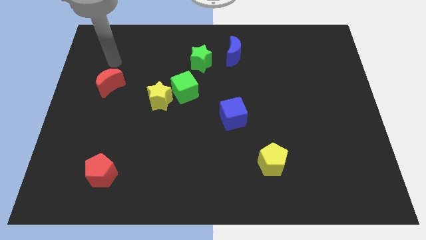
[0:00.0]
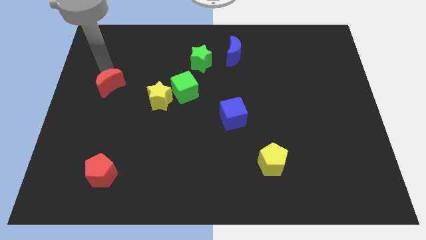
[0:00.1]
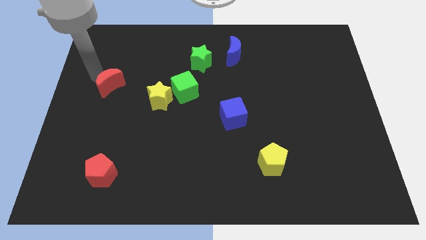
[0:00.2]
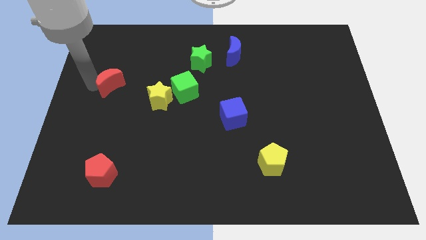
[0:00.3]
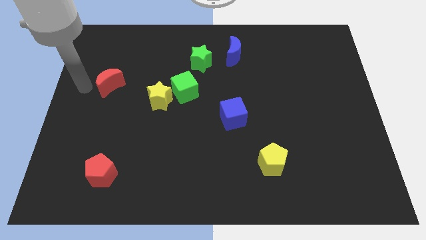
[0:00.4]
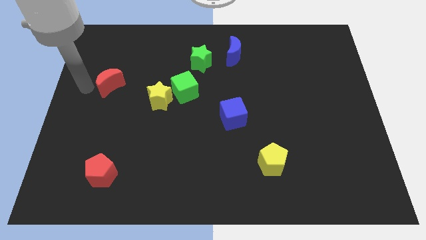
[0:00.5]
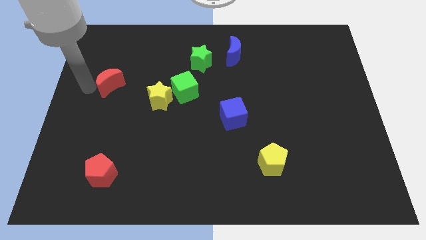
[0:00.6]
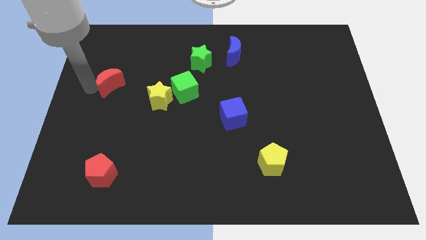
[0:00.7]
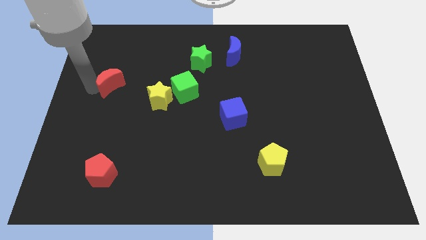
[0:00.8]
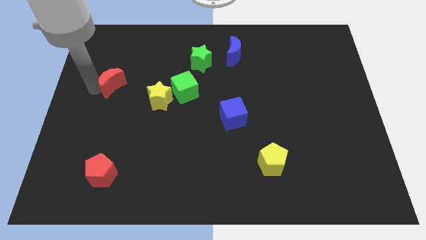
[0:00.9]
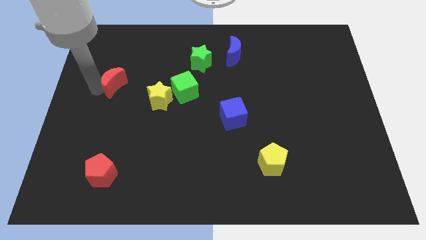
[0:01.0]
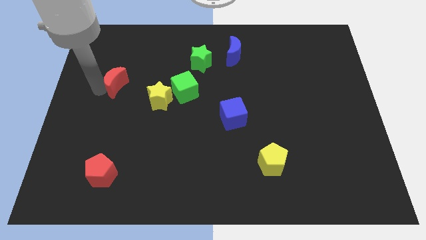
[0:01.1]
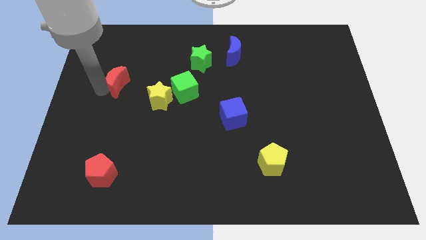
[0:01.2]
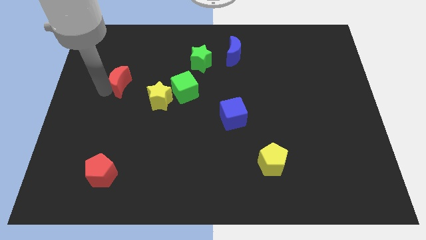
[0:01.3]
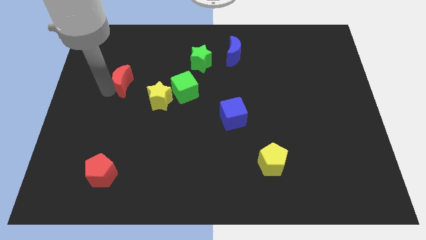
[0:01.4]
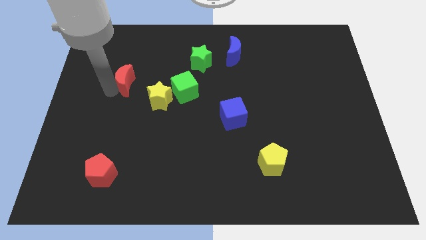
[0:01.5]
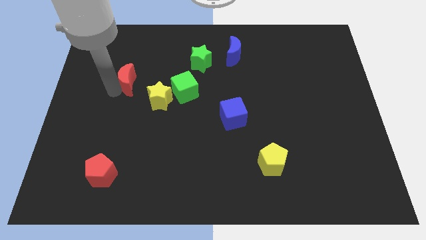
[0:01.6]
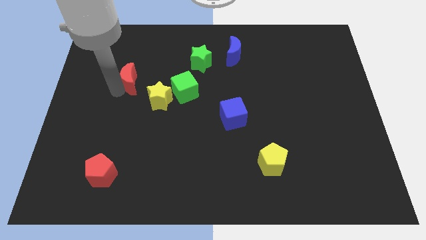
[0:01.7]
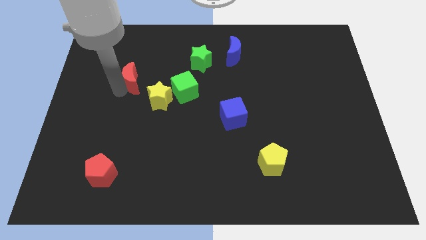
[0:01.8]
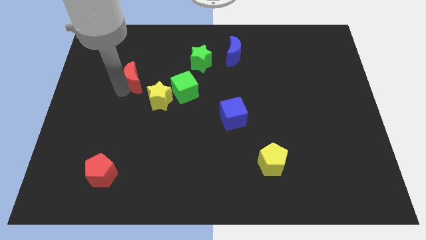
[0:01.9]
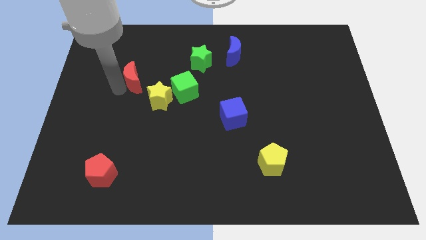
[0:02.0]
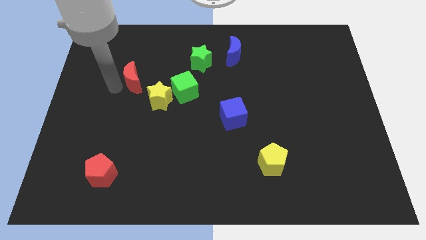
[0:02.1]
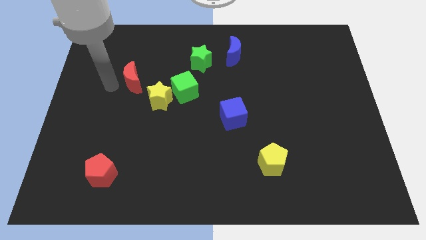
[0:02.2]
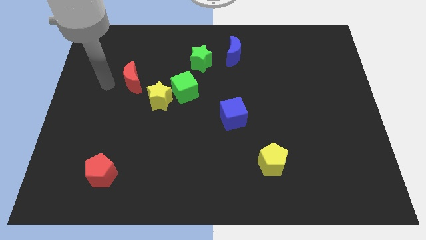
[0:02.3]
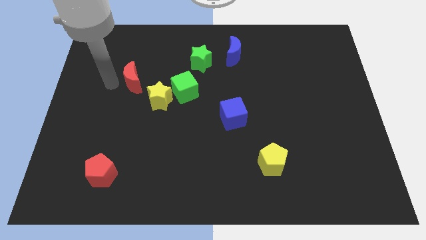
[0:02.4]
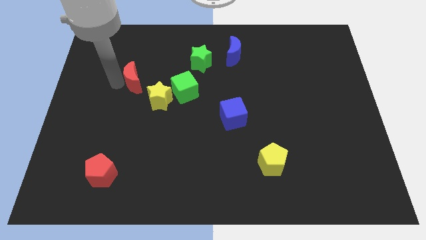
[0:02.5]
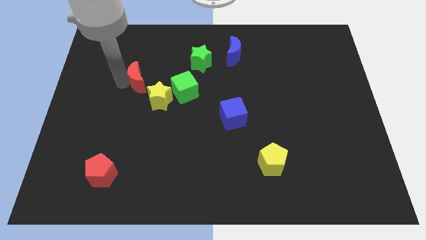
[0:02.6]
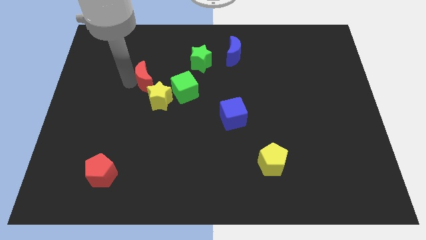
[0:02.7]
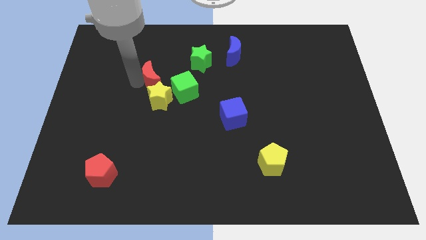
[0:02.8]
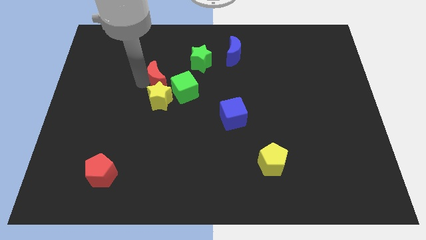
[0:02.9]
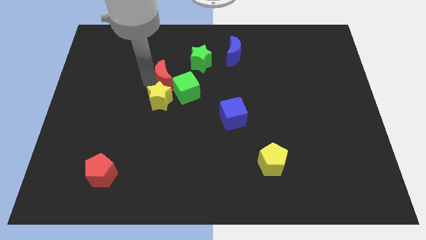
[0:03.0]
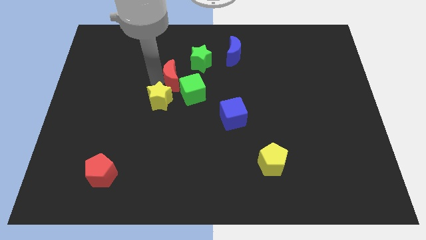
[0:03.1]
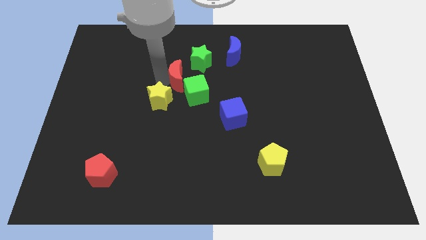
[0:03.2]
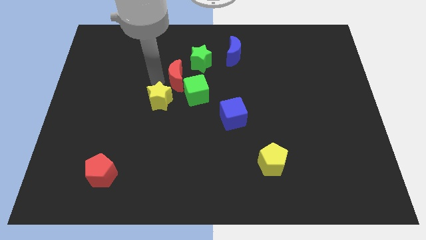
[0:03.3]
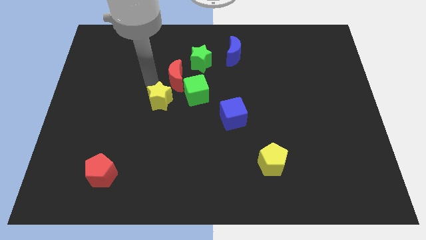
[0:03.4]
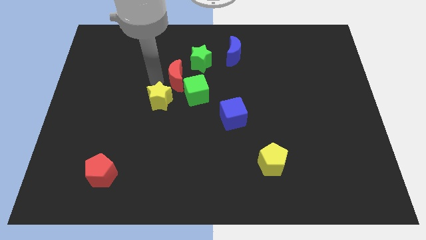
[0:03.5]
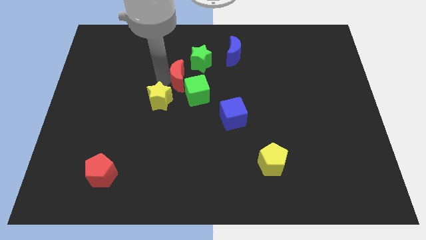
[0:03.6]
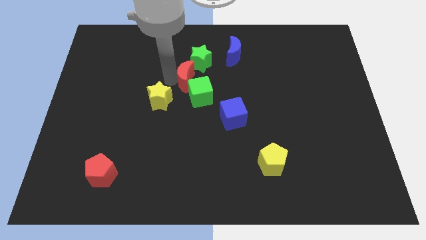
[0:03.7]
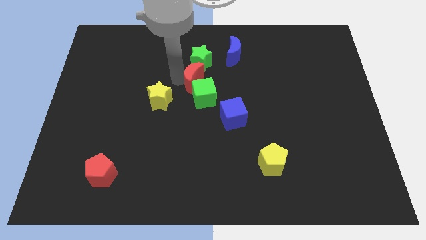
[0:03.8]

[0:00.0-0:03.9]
slide the red moon right

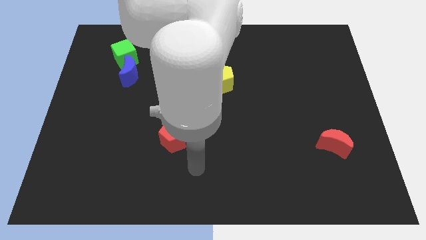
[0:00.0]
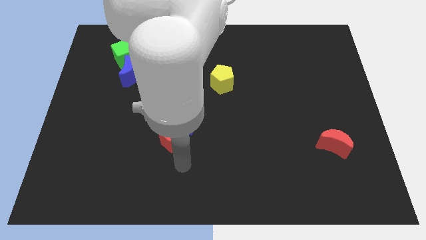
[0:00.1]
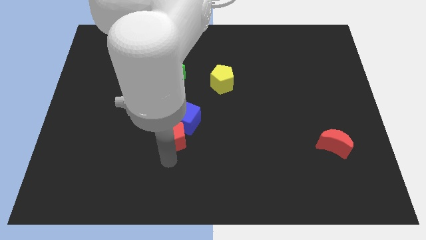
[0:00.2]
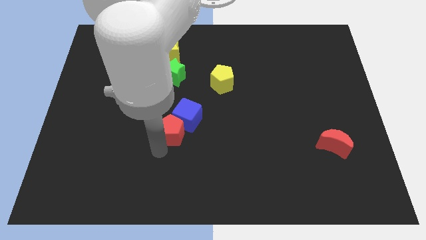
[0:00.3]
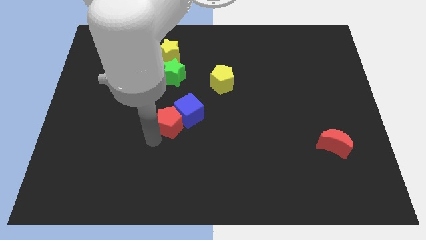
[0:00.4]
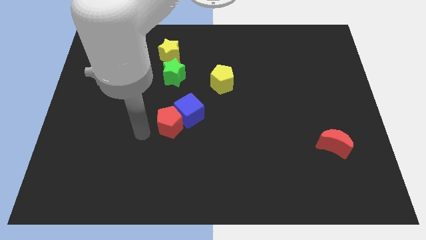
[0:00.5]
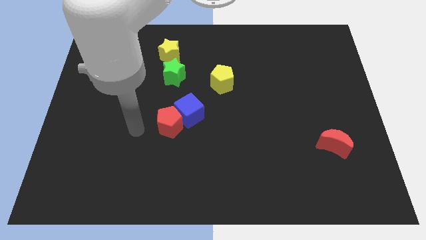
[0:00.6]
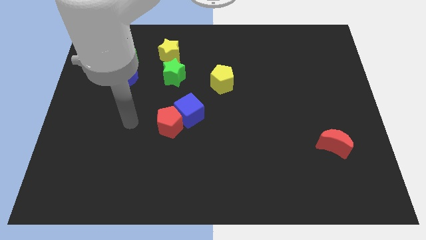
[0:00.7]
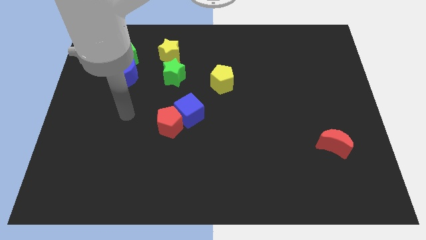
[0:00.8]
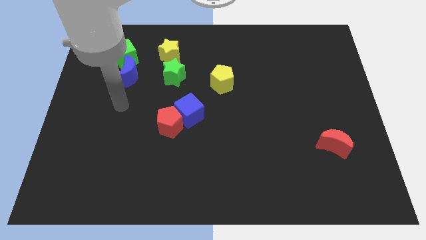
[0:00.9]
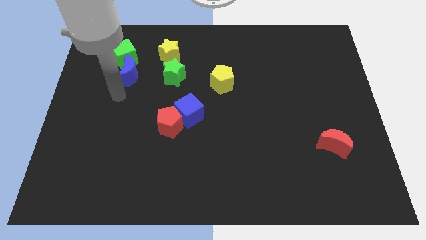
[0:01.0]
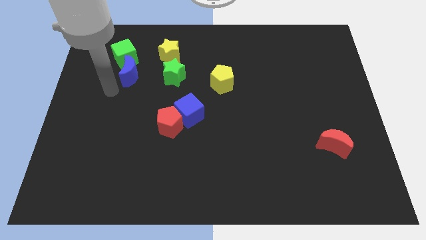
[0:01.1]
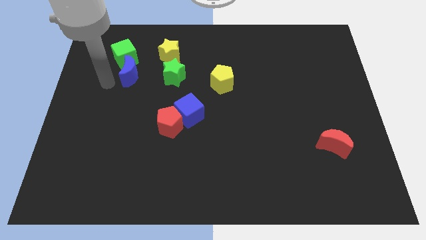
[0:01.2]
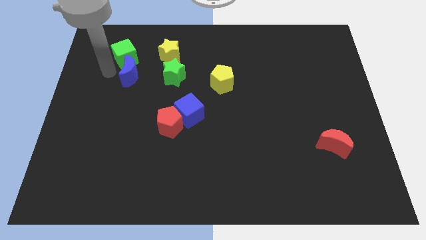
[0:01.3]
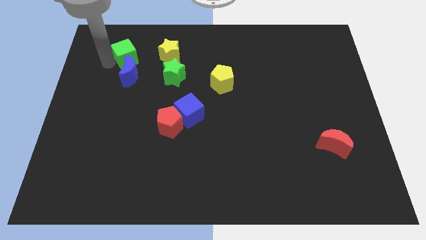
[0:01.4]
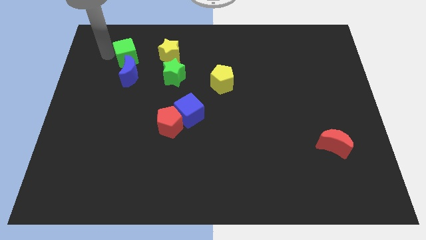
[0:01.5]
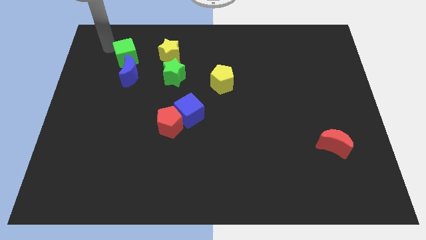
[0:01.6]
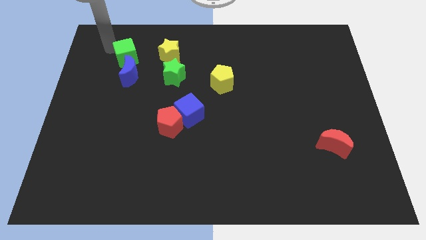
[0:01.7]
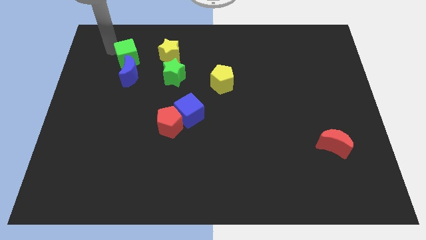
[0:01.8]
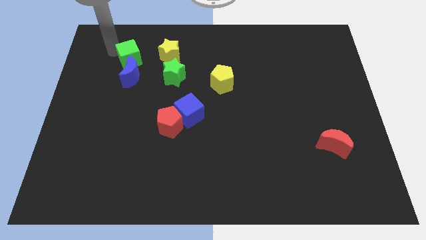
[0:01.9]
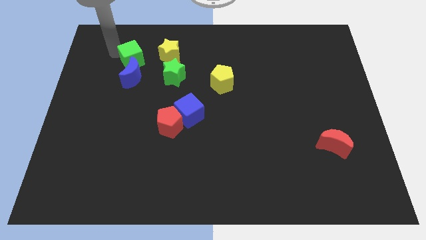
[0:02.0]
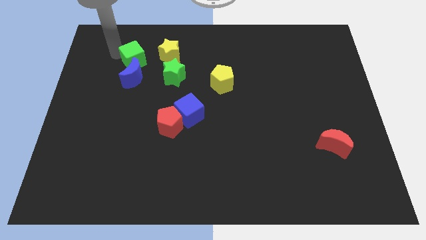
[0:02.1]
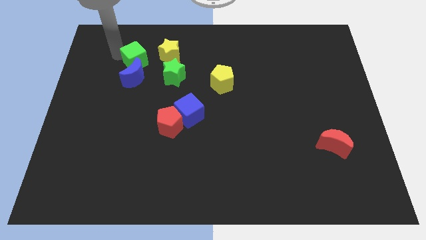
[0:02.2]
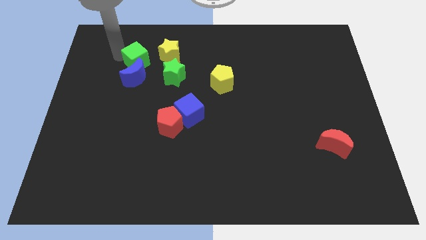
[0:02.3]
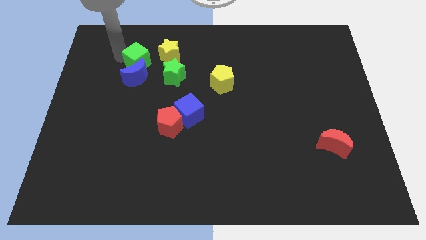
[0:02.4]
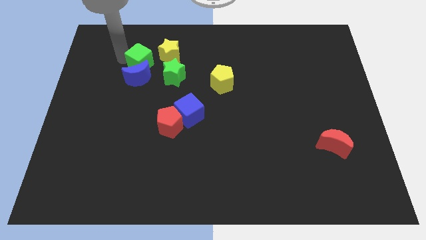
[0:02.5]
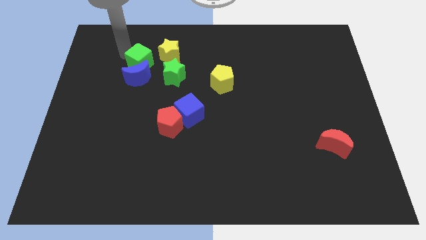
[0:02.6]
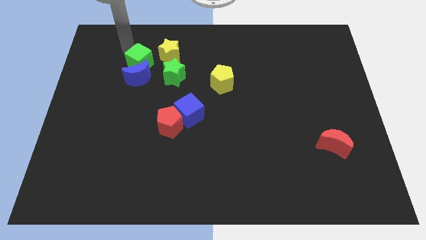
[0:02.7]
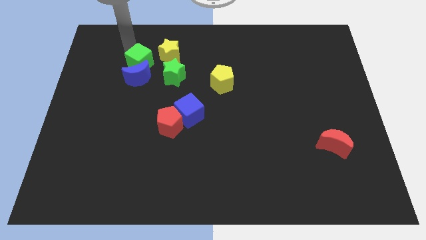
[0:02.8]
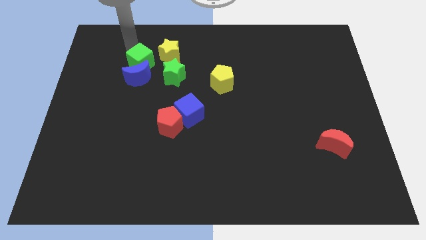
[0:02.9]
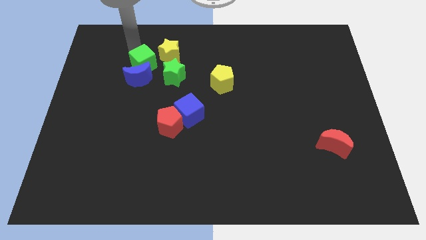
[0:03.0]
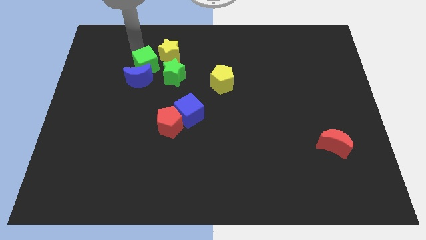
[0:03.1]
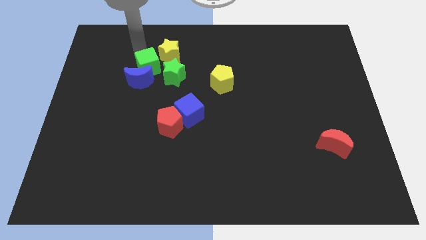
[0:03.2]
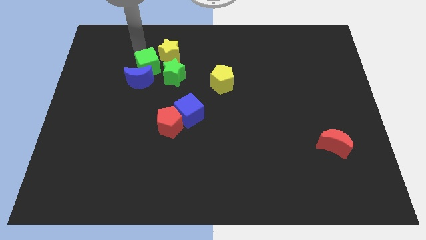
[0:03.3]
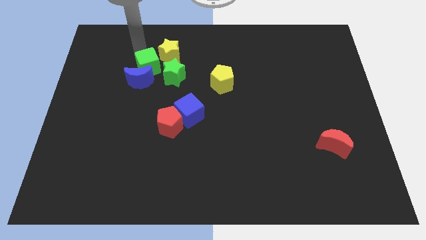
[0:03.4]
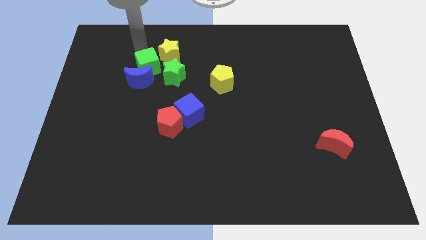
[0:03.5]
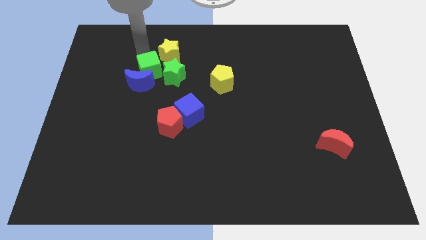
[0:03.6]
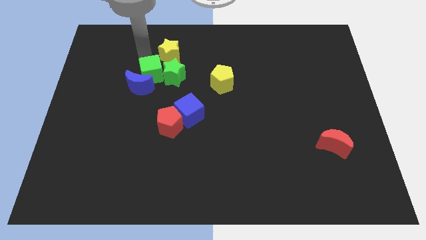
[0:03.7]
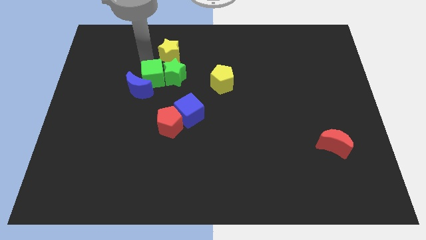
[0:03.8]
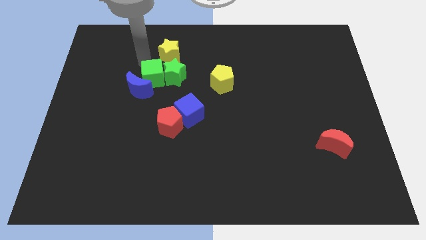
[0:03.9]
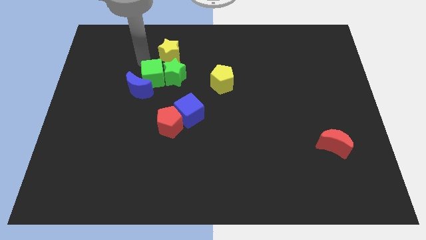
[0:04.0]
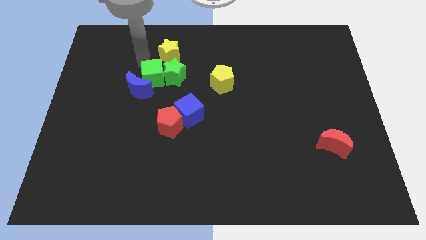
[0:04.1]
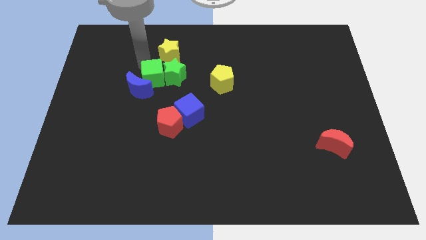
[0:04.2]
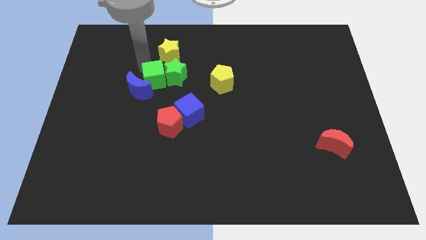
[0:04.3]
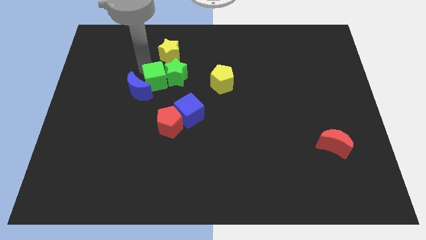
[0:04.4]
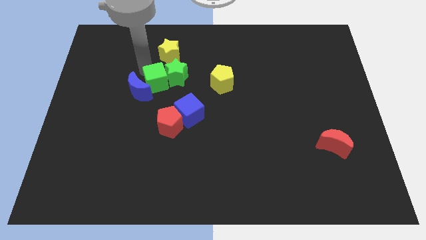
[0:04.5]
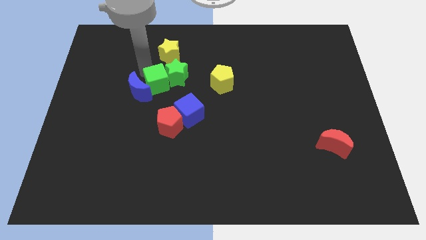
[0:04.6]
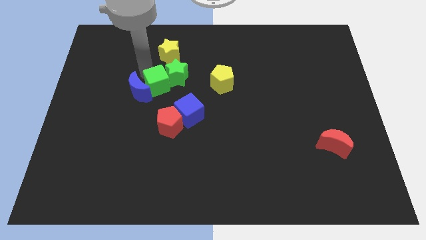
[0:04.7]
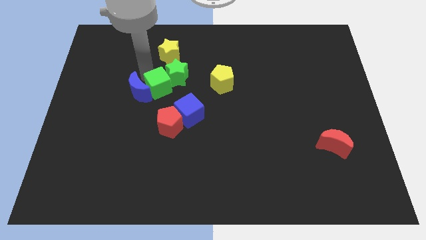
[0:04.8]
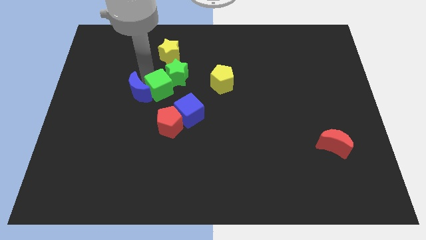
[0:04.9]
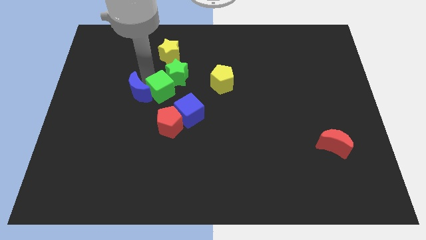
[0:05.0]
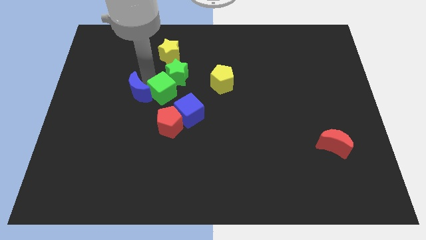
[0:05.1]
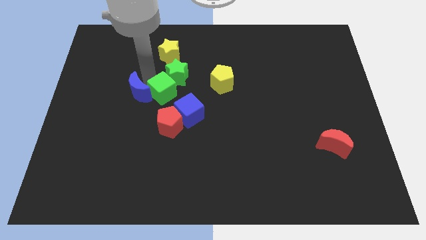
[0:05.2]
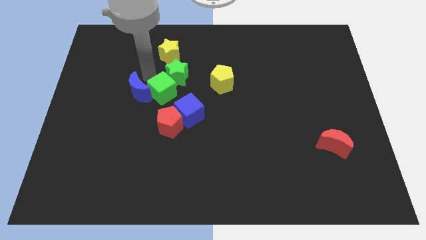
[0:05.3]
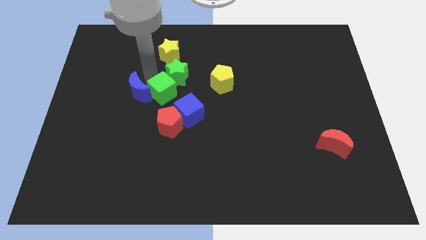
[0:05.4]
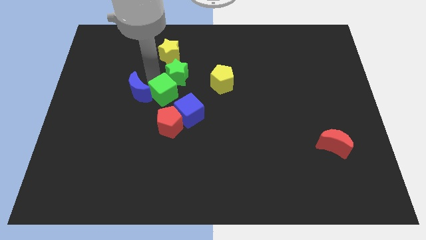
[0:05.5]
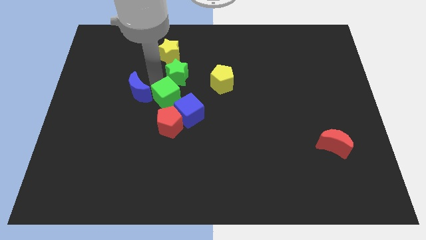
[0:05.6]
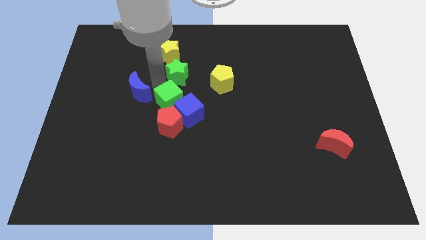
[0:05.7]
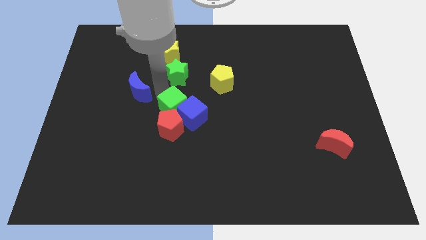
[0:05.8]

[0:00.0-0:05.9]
push the green cube downwards and to the right diagonally
